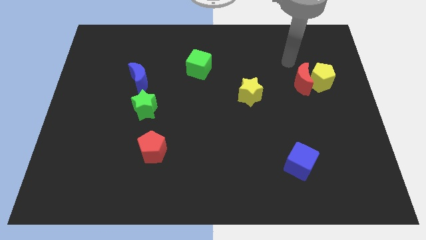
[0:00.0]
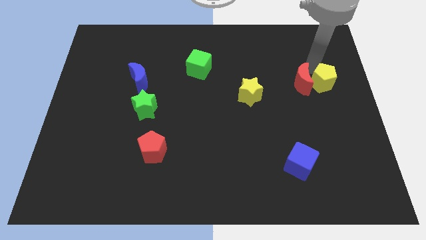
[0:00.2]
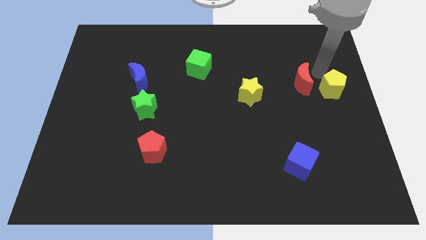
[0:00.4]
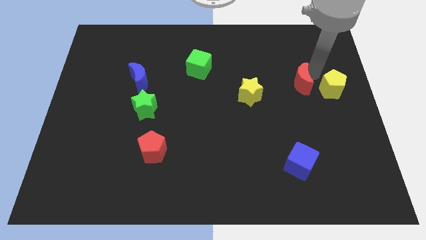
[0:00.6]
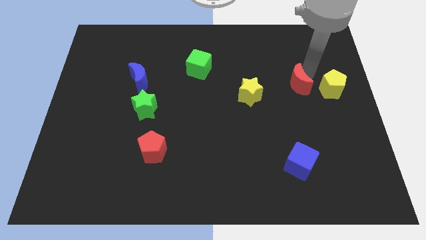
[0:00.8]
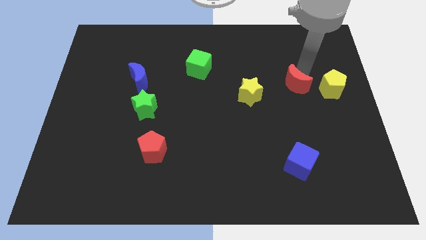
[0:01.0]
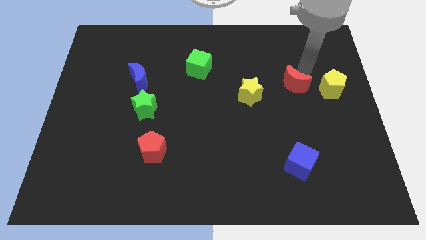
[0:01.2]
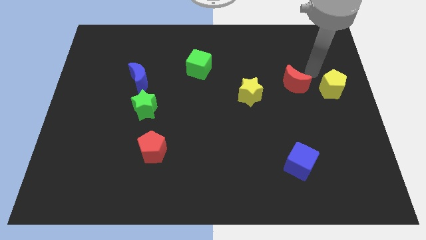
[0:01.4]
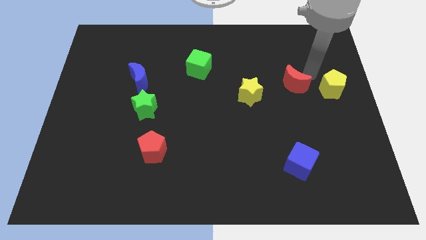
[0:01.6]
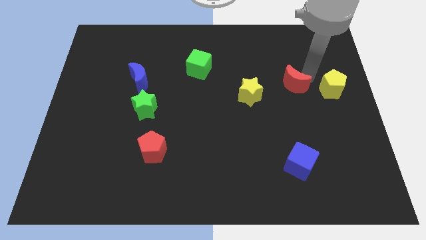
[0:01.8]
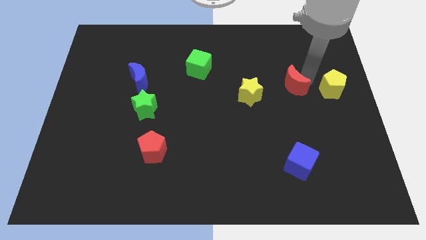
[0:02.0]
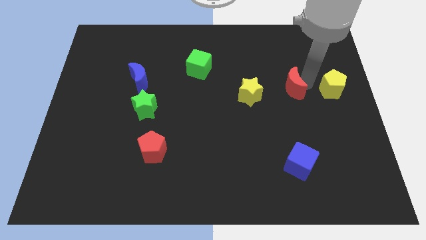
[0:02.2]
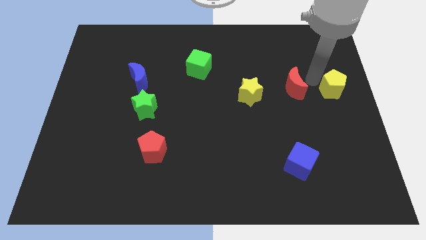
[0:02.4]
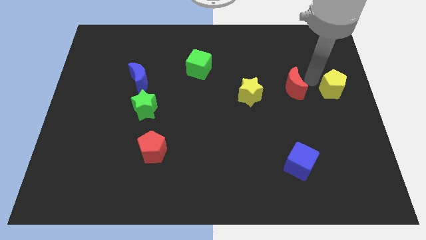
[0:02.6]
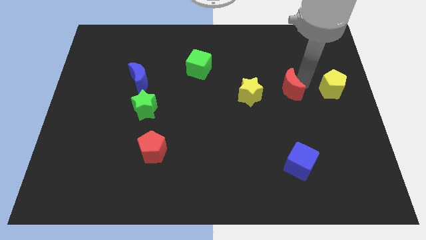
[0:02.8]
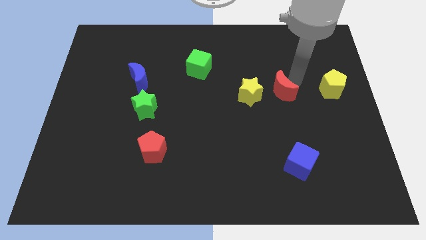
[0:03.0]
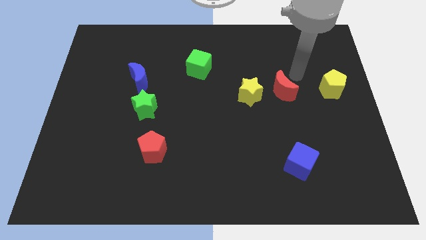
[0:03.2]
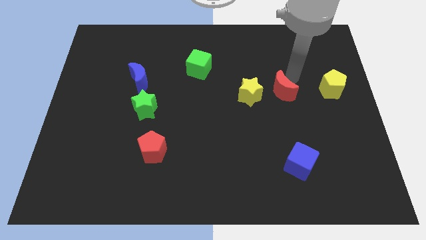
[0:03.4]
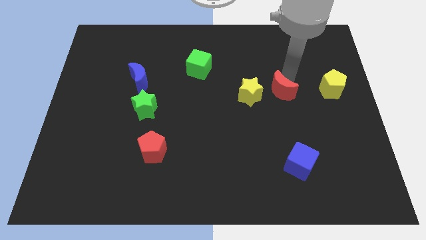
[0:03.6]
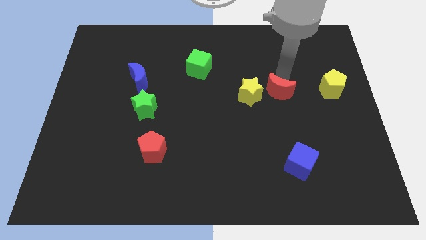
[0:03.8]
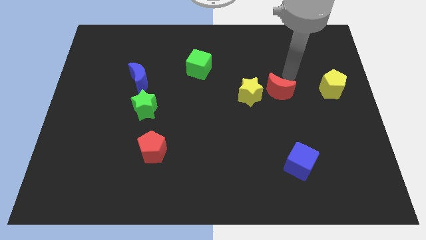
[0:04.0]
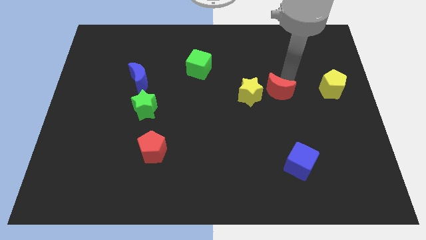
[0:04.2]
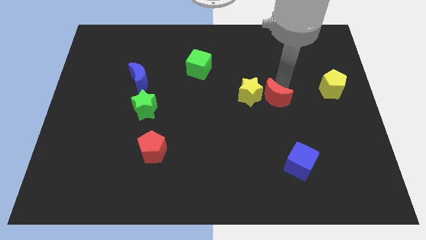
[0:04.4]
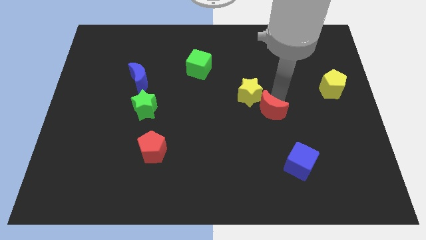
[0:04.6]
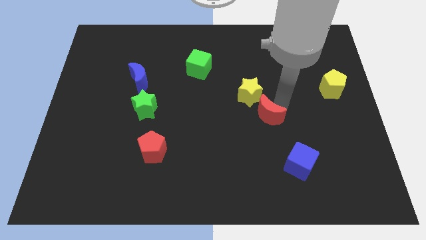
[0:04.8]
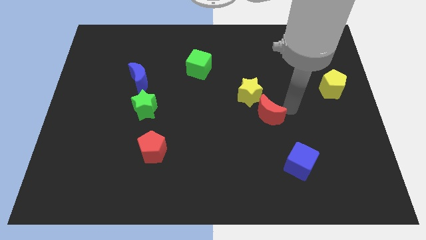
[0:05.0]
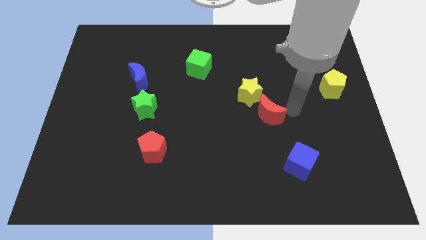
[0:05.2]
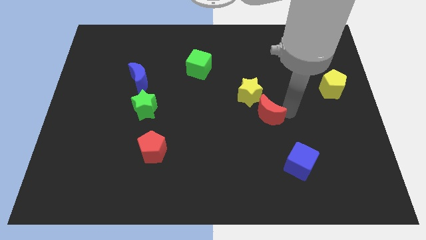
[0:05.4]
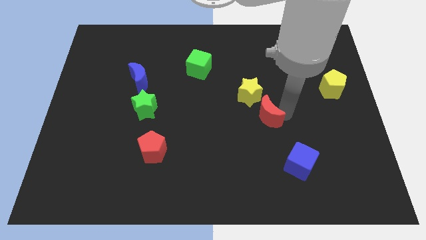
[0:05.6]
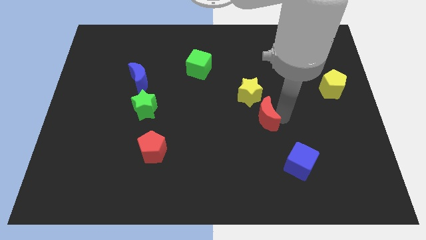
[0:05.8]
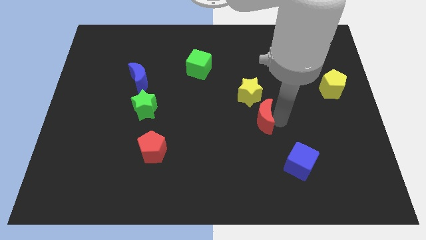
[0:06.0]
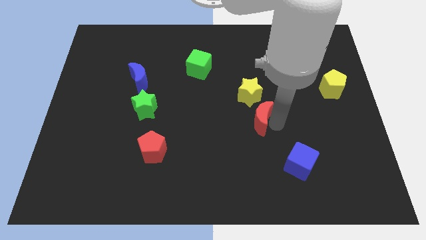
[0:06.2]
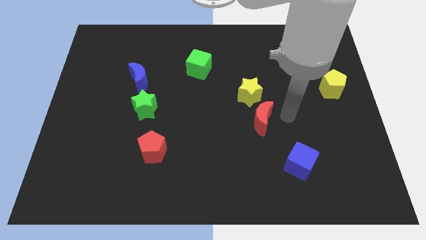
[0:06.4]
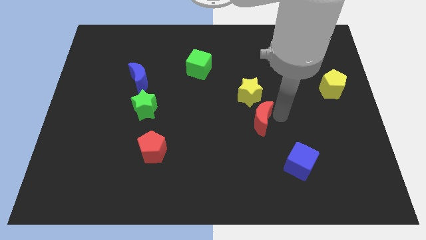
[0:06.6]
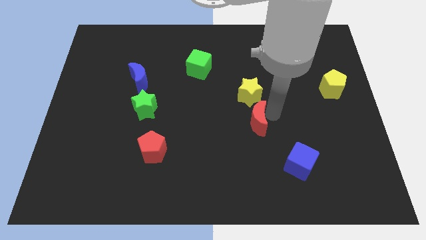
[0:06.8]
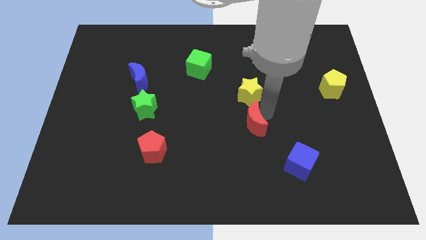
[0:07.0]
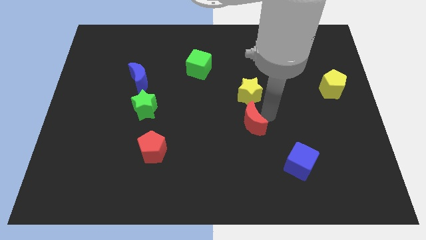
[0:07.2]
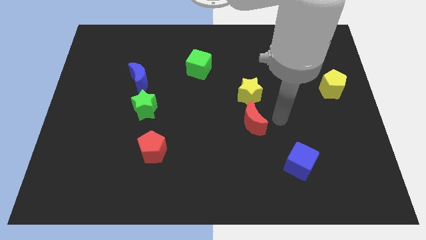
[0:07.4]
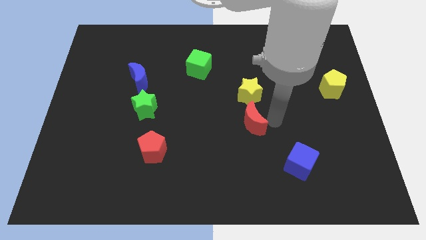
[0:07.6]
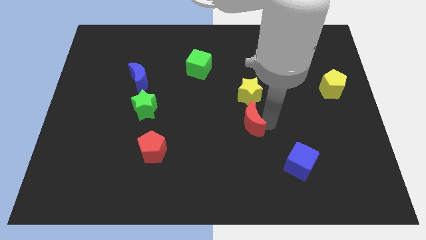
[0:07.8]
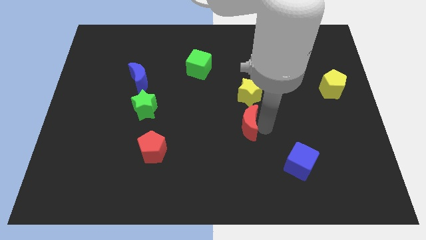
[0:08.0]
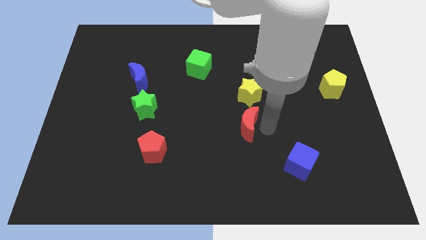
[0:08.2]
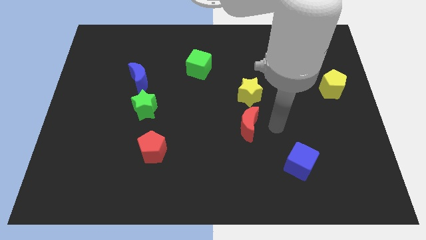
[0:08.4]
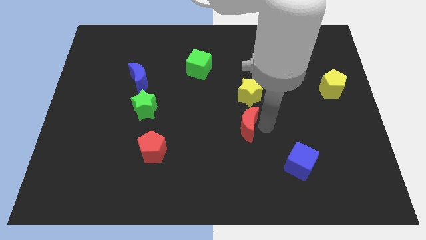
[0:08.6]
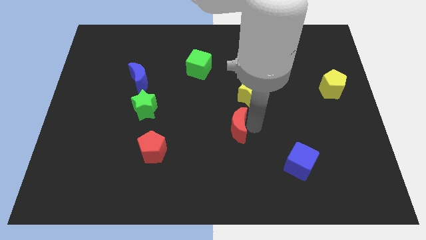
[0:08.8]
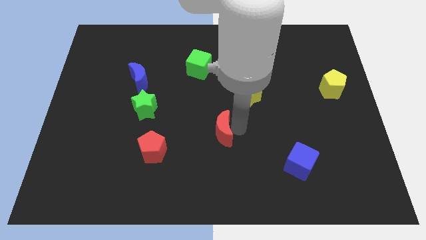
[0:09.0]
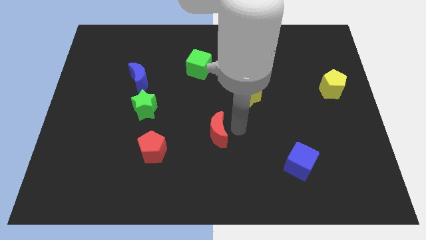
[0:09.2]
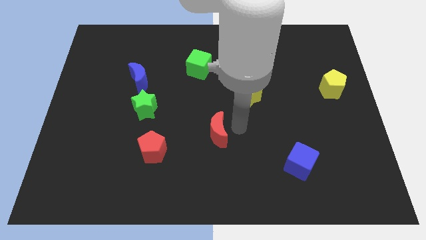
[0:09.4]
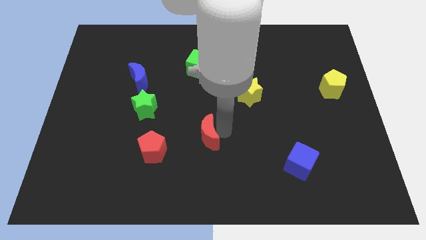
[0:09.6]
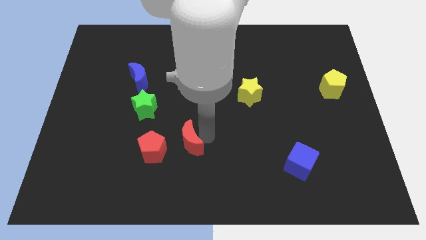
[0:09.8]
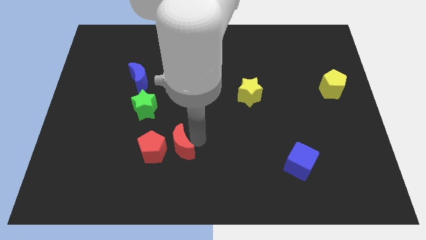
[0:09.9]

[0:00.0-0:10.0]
push the red moon towards the red pentagon

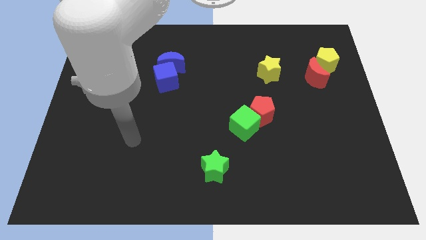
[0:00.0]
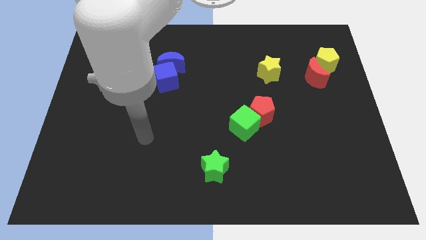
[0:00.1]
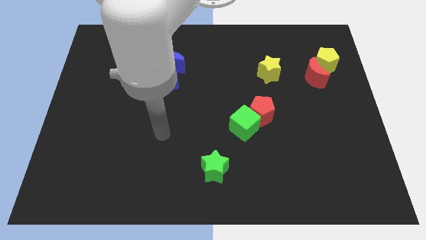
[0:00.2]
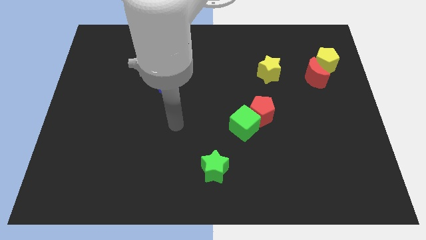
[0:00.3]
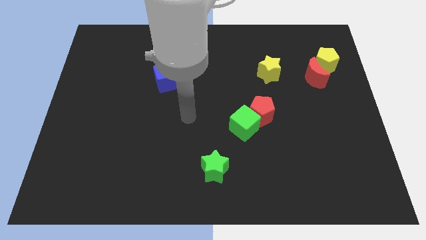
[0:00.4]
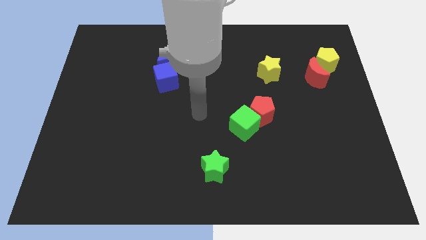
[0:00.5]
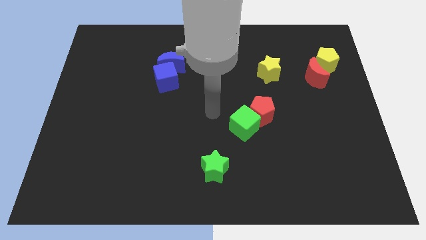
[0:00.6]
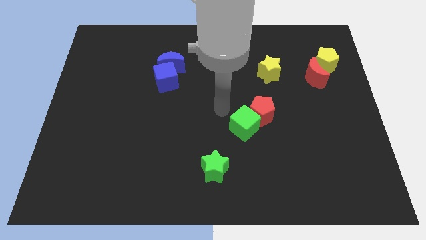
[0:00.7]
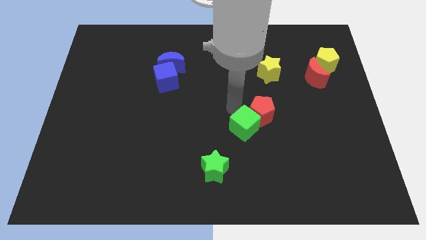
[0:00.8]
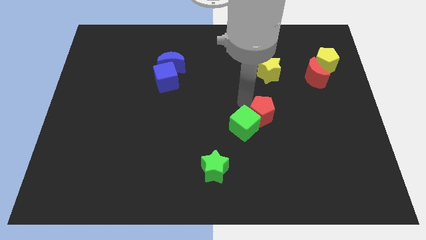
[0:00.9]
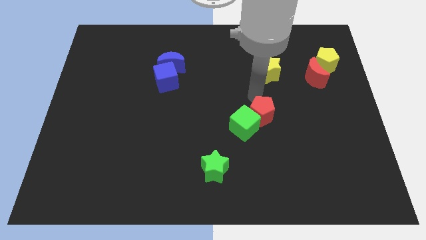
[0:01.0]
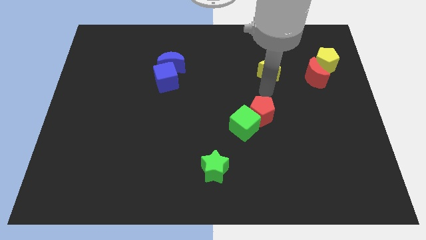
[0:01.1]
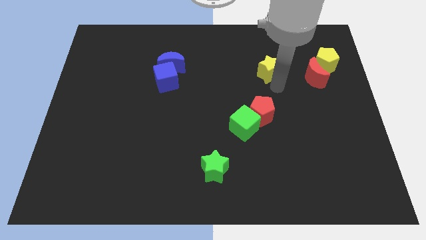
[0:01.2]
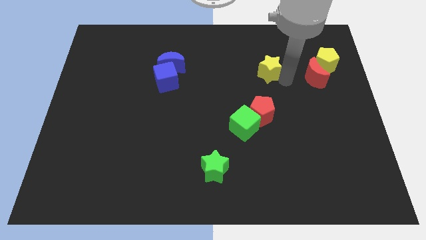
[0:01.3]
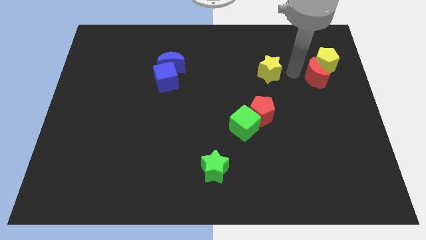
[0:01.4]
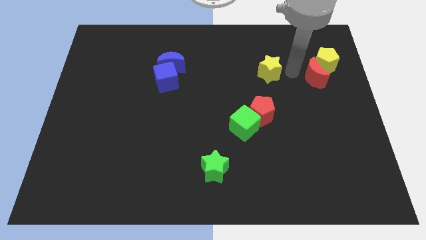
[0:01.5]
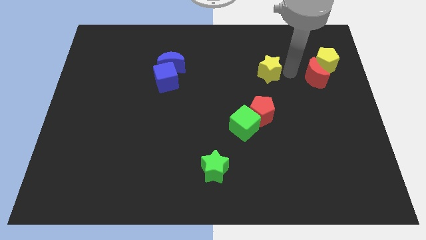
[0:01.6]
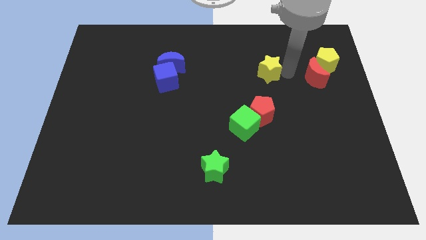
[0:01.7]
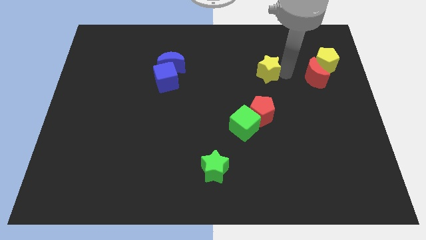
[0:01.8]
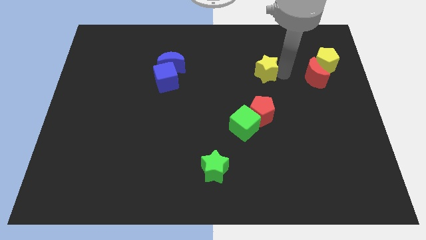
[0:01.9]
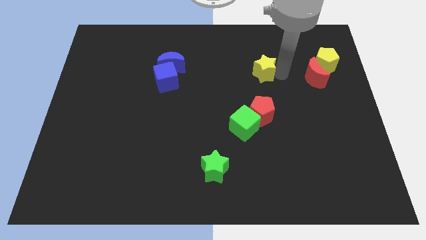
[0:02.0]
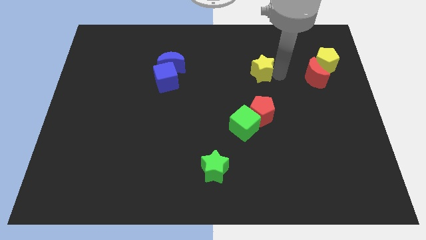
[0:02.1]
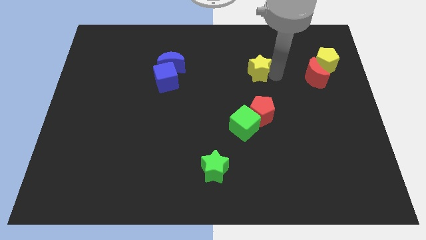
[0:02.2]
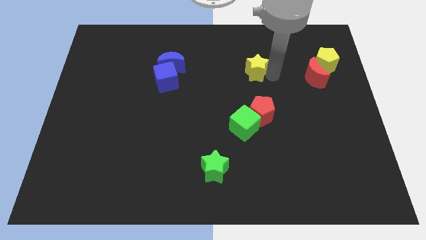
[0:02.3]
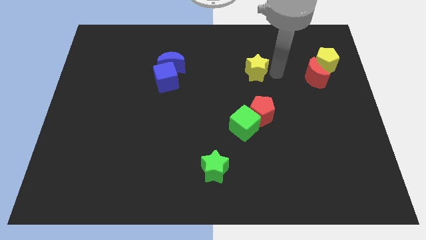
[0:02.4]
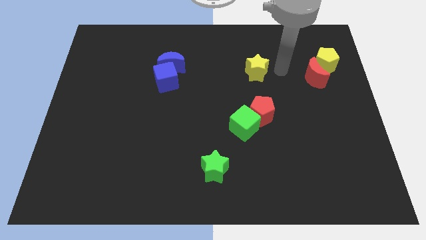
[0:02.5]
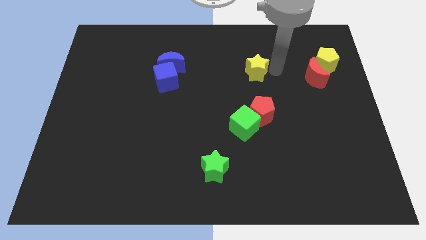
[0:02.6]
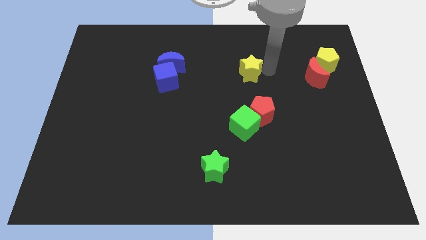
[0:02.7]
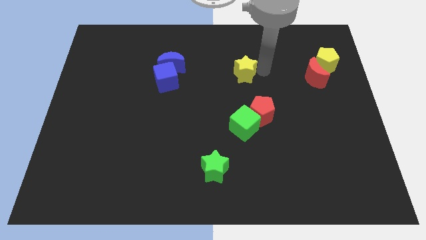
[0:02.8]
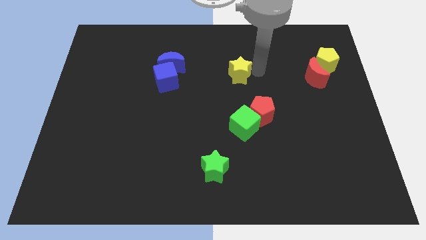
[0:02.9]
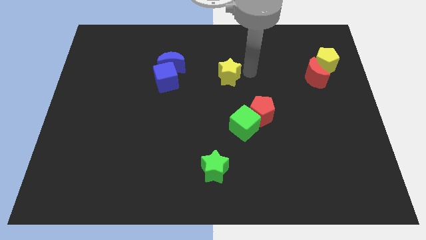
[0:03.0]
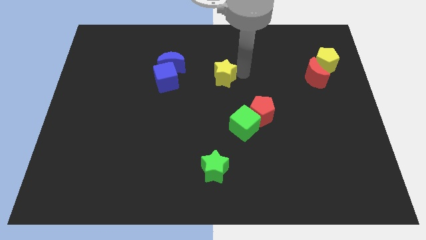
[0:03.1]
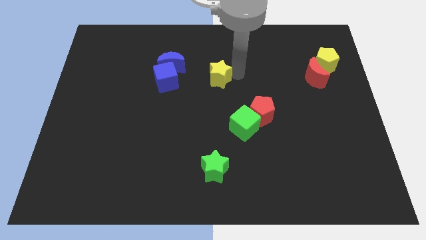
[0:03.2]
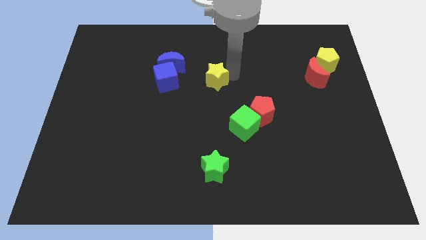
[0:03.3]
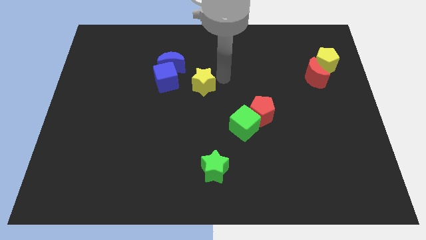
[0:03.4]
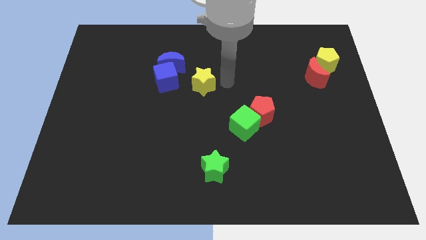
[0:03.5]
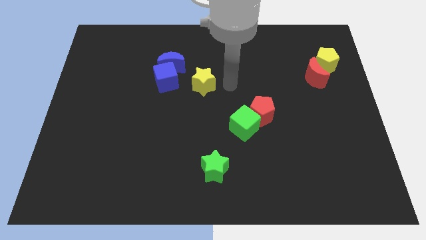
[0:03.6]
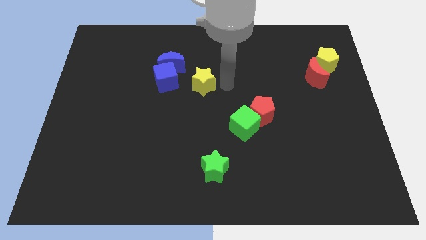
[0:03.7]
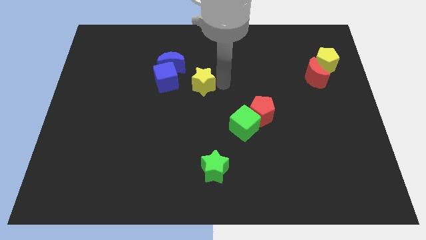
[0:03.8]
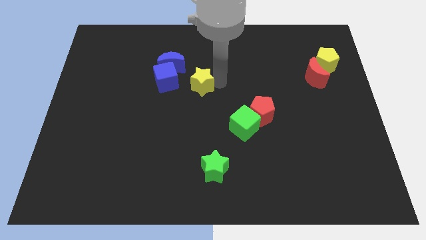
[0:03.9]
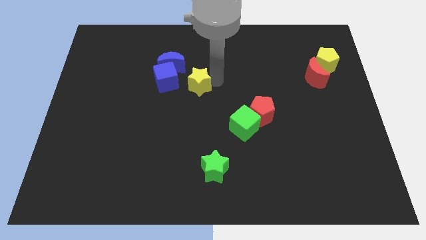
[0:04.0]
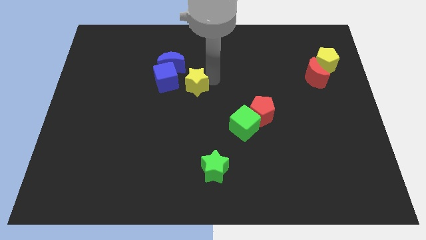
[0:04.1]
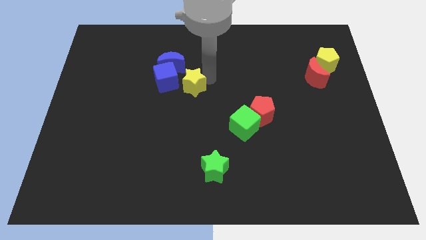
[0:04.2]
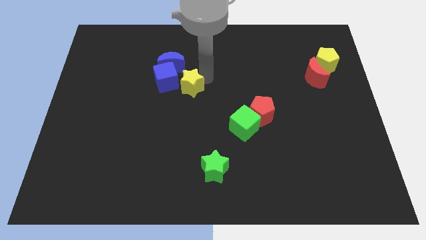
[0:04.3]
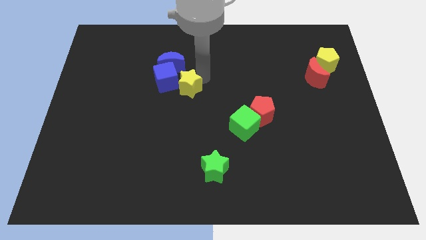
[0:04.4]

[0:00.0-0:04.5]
push the yellow star close to the blue cube
